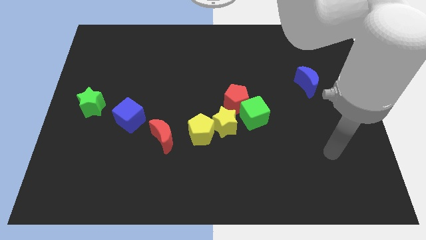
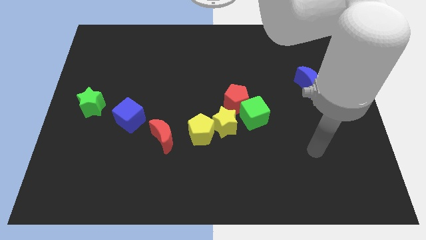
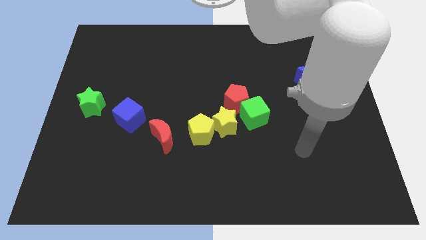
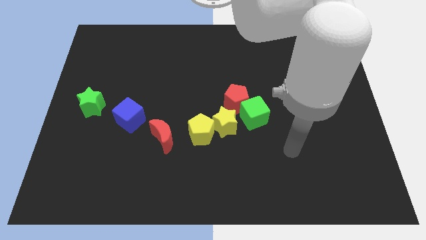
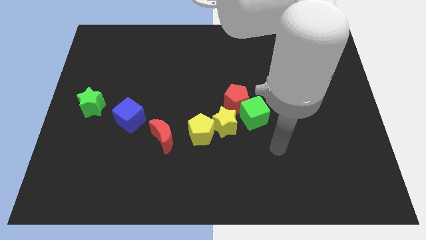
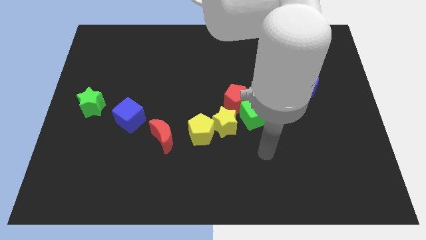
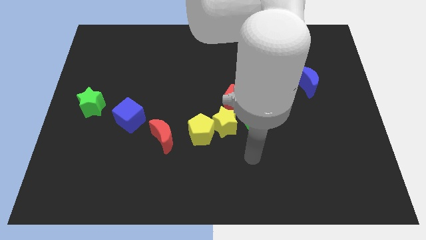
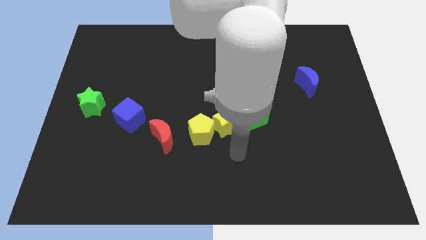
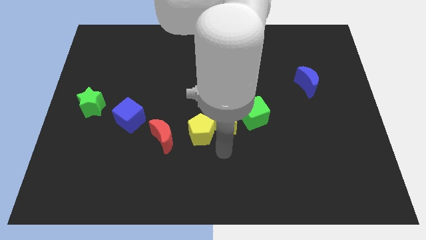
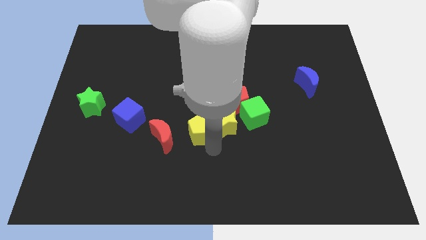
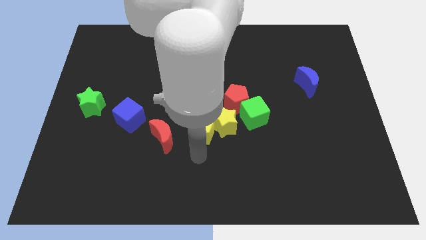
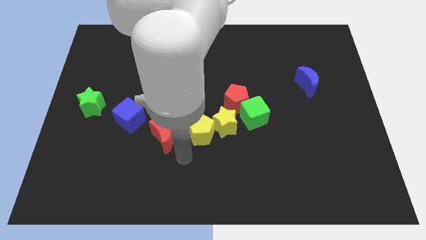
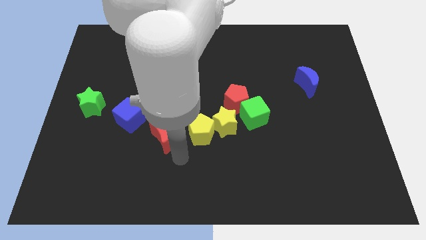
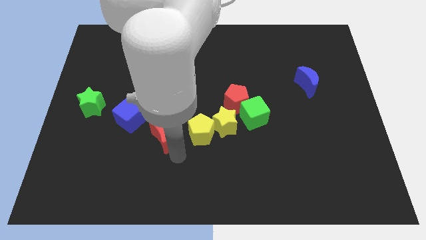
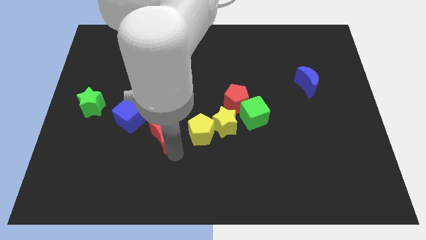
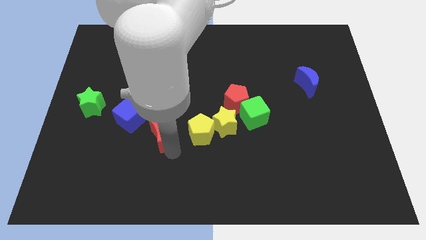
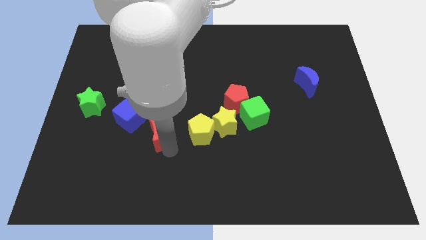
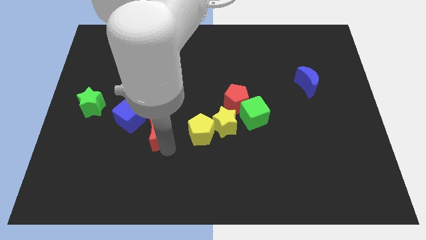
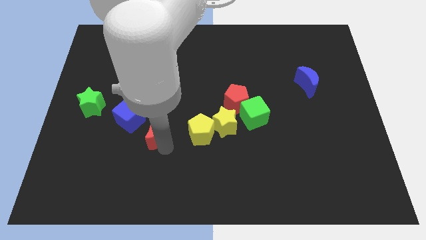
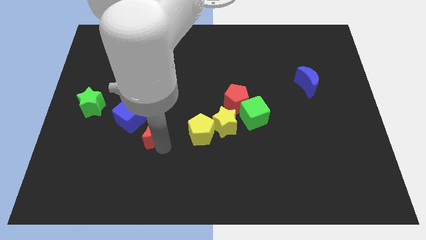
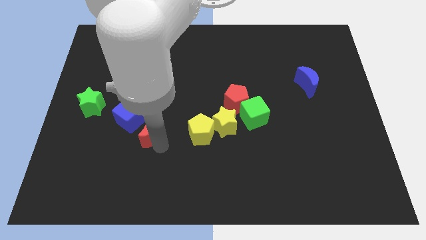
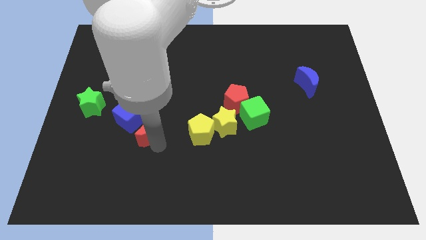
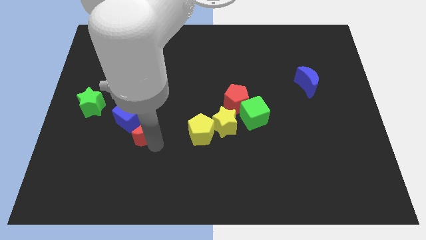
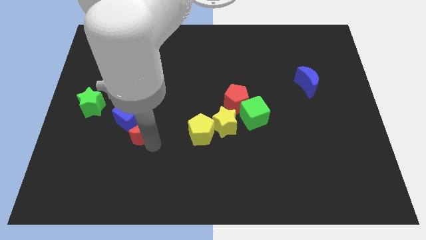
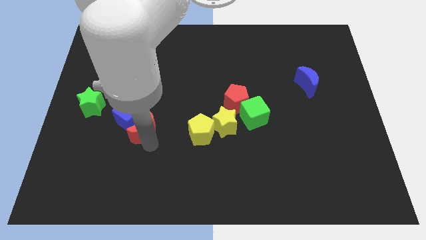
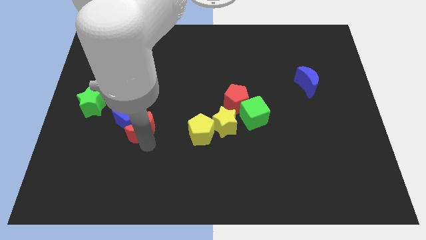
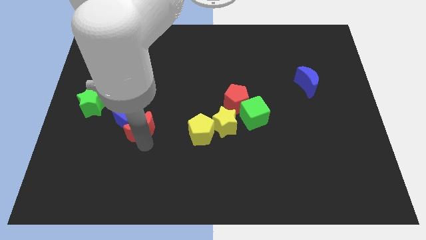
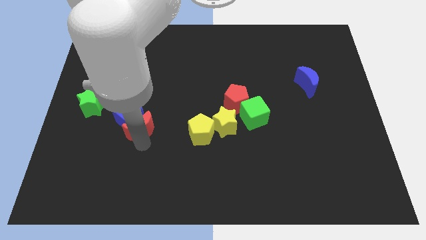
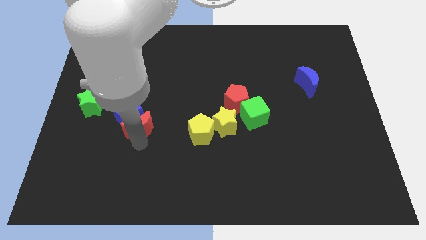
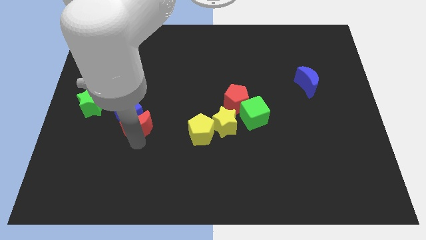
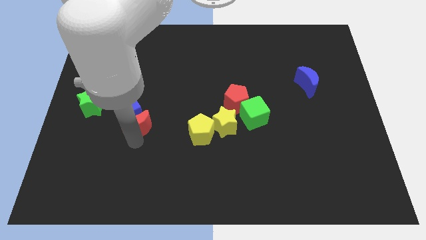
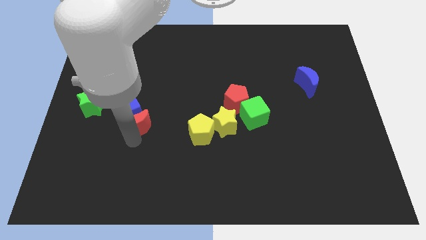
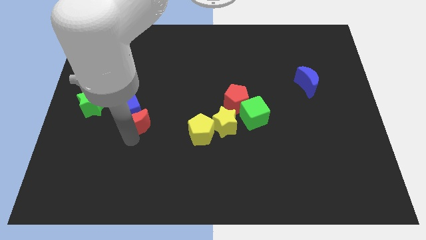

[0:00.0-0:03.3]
slightly slide the red moon up and left

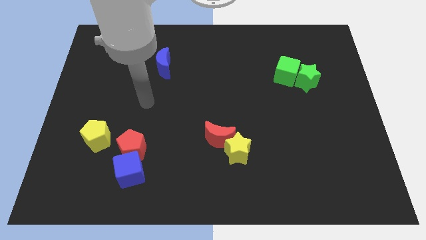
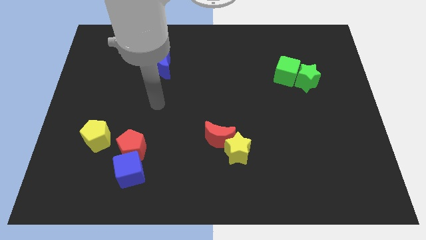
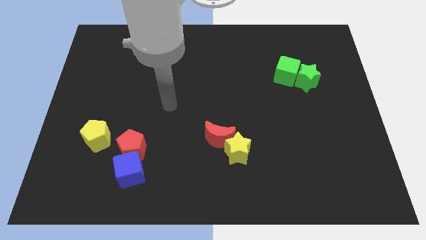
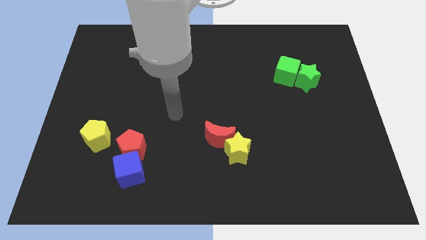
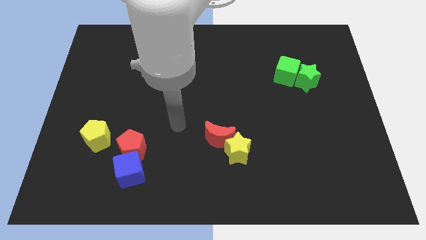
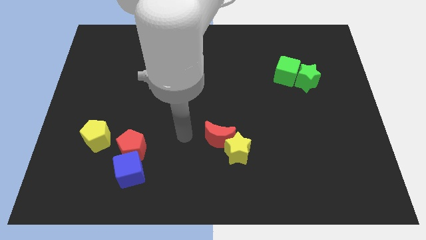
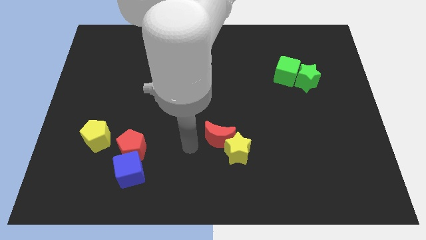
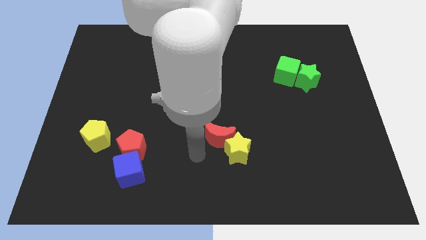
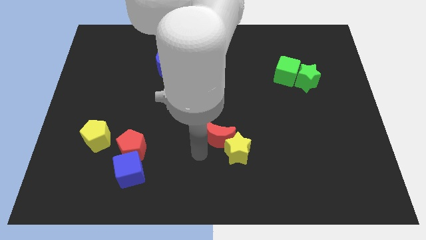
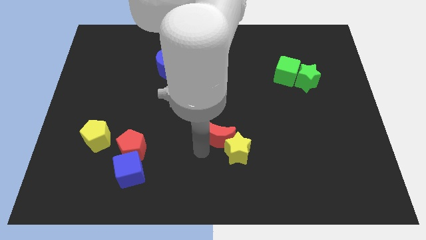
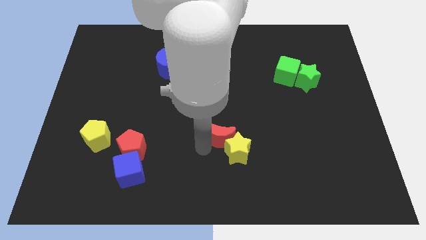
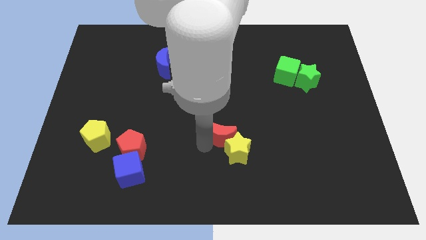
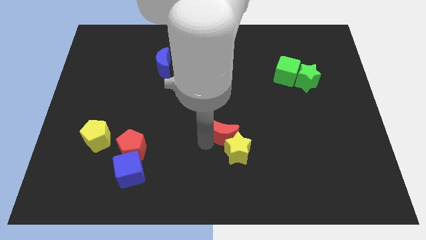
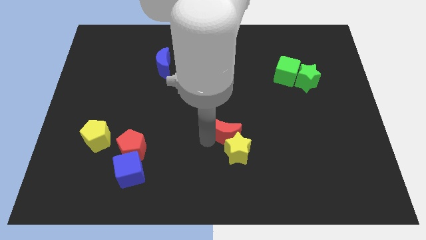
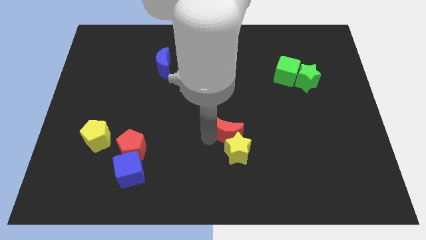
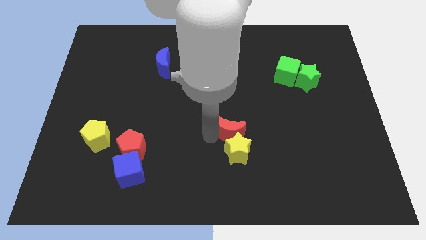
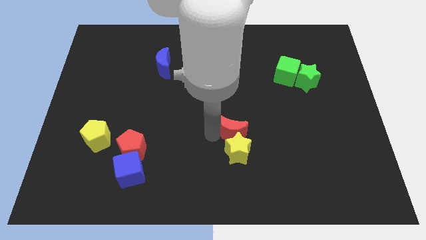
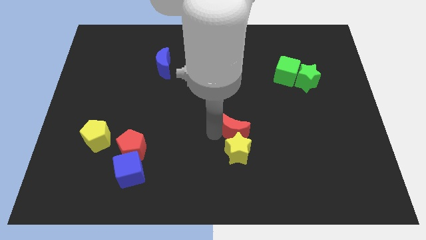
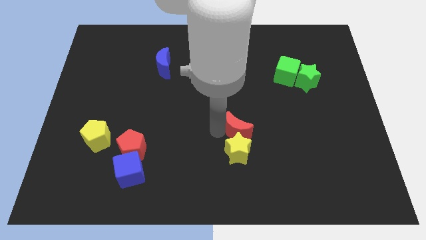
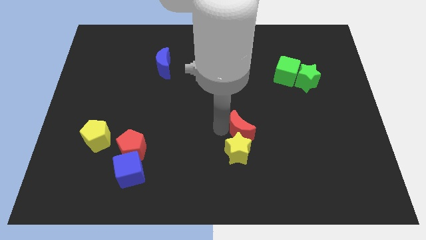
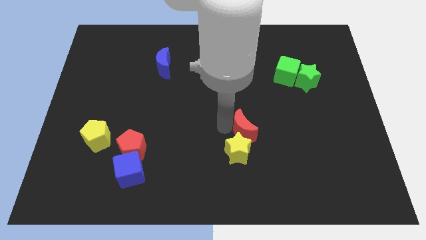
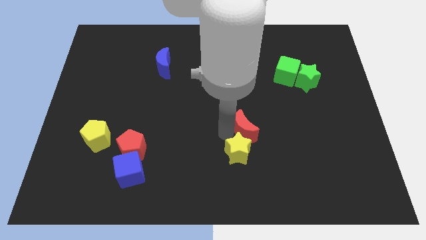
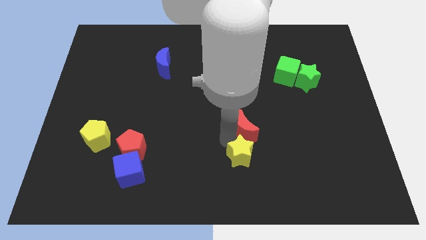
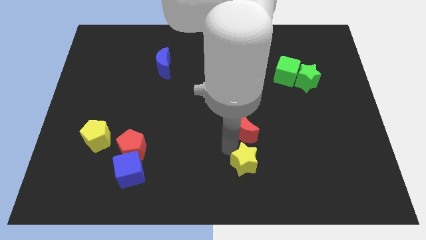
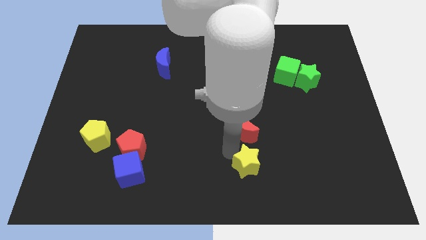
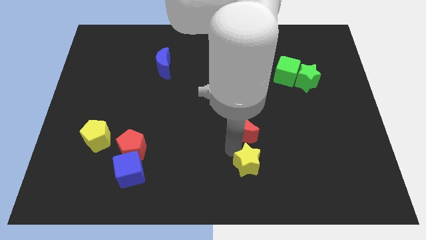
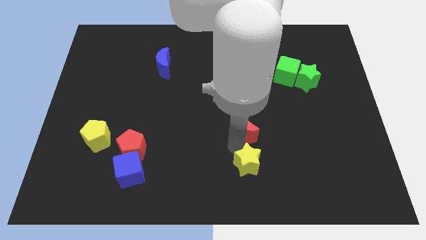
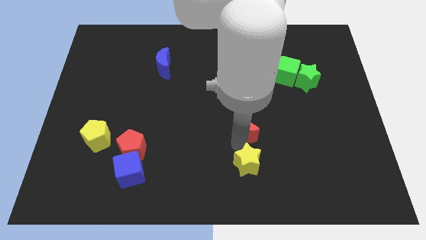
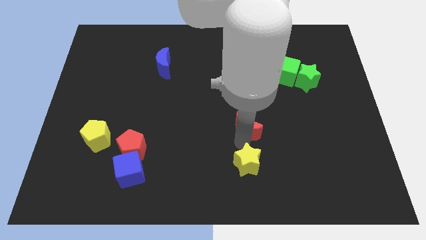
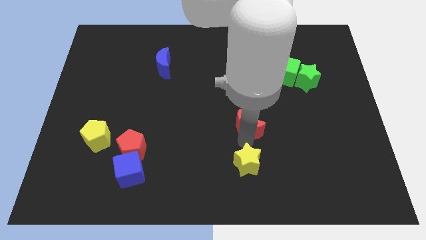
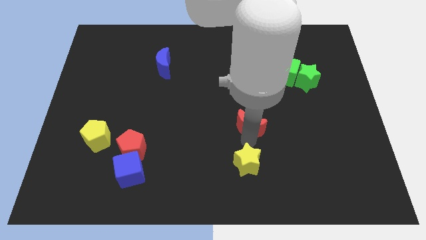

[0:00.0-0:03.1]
slide the red moon up and right a little bit

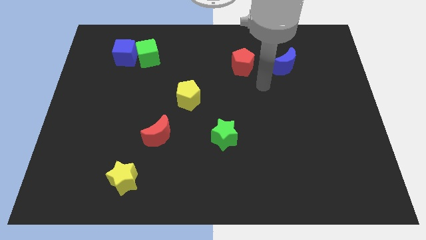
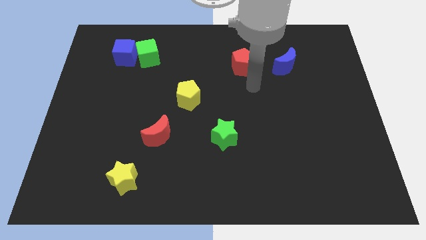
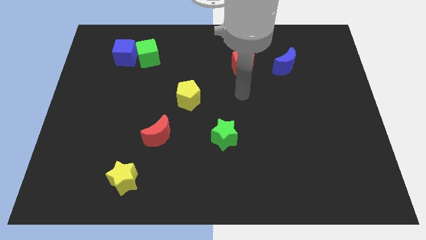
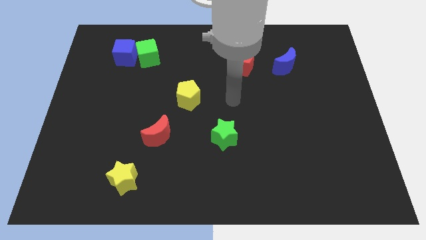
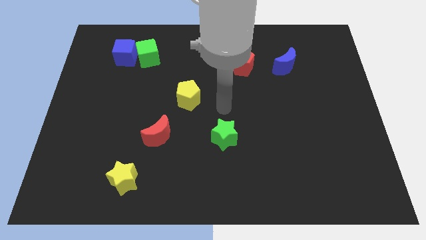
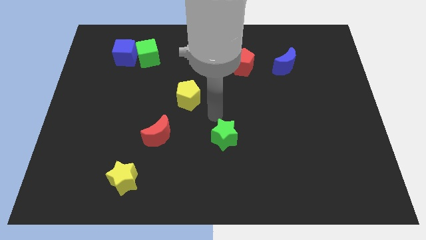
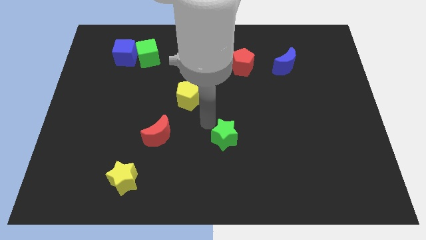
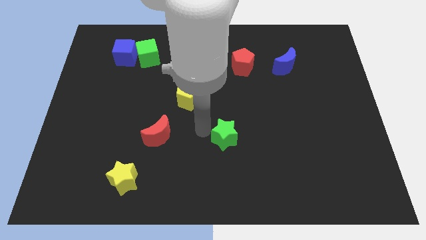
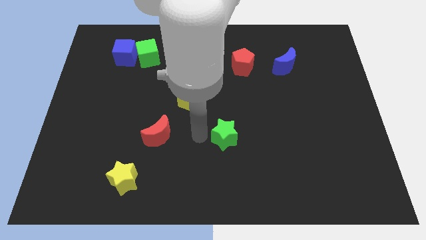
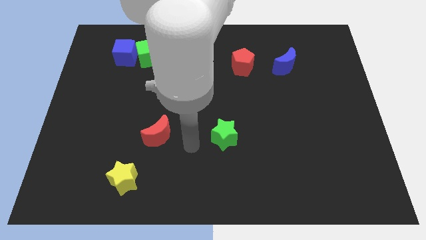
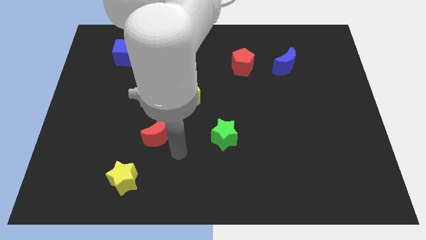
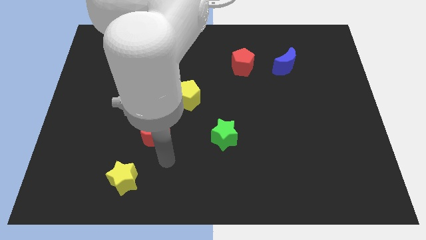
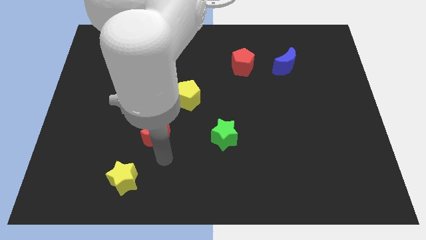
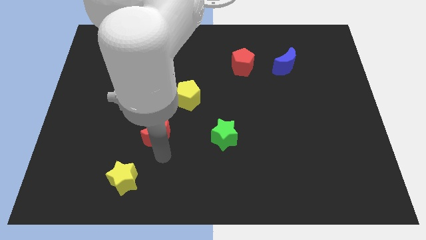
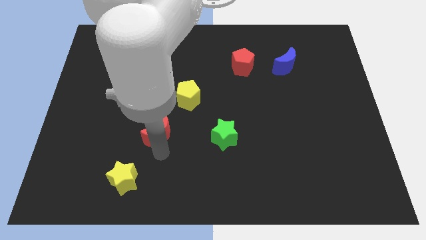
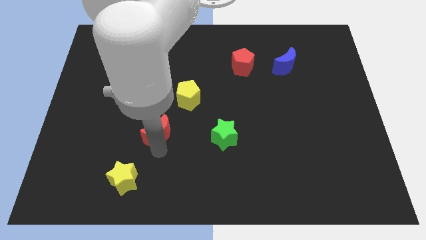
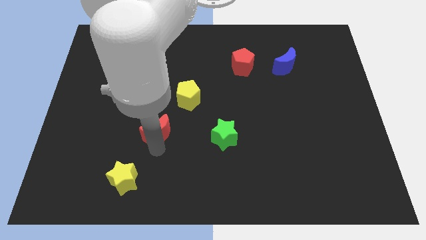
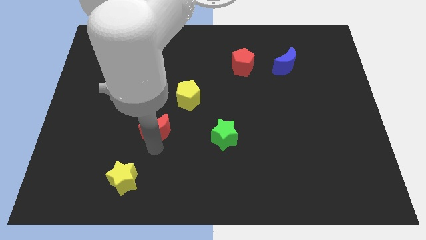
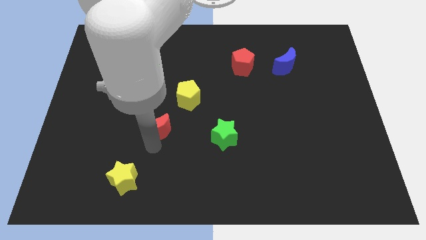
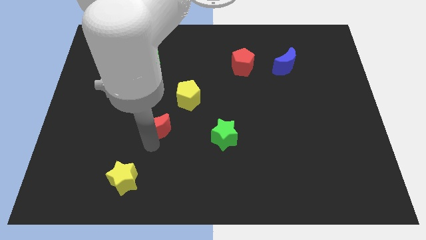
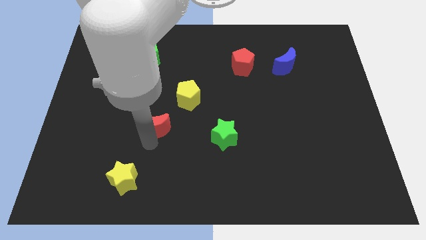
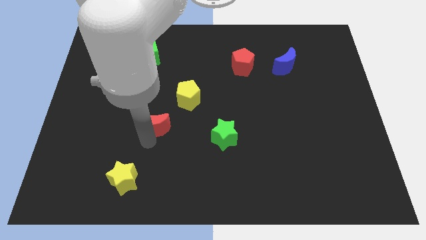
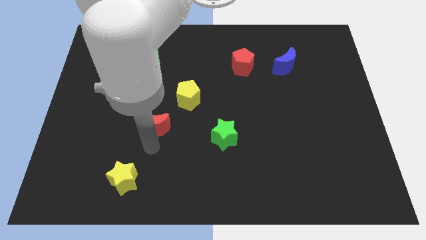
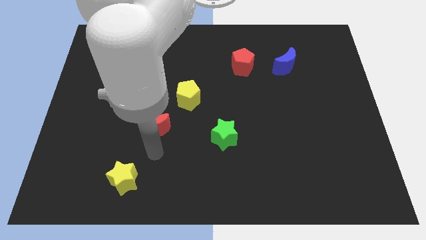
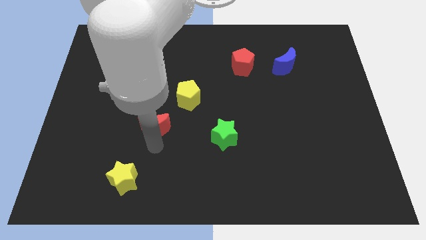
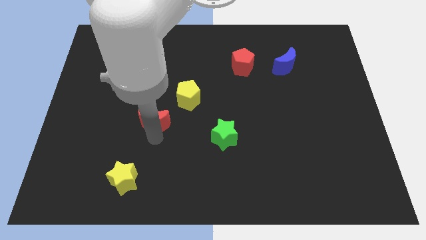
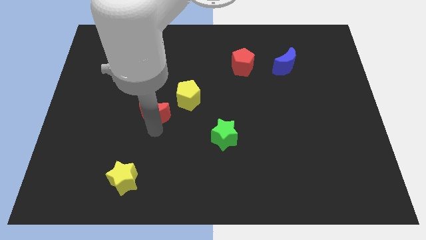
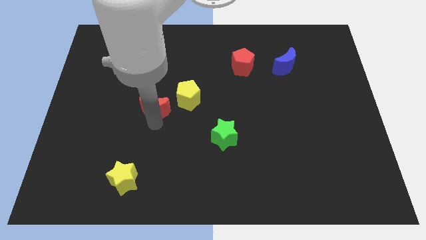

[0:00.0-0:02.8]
move the red moon upwards a little
